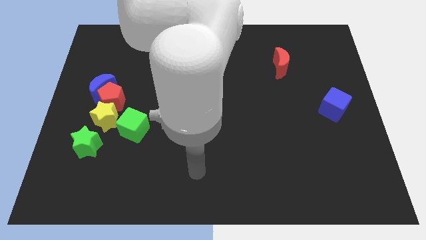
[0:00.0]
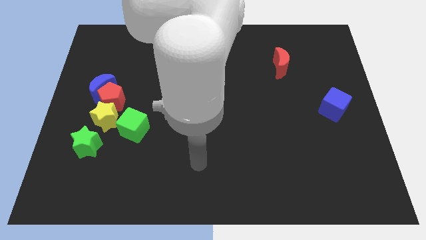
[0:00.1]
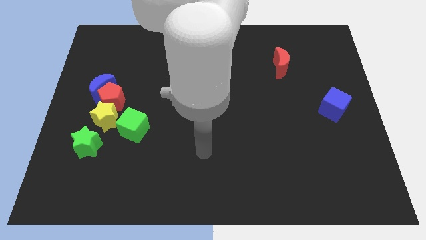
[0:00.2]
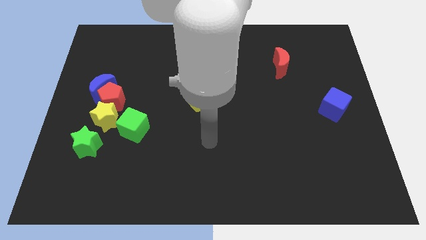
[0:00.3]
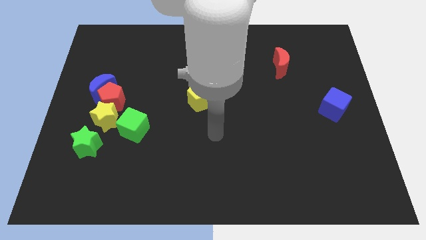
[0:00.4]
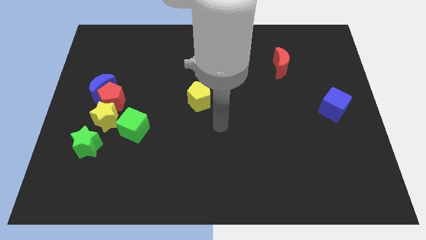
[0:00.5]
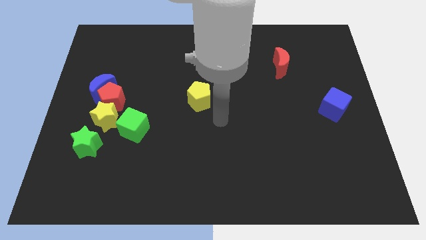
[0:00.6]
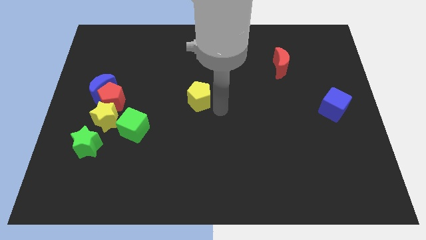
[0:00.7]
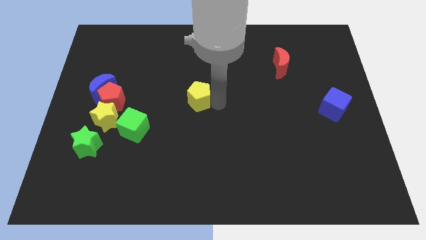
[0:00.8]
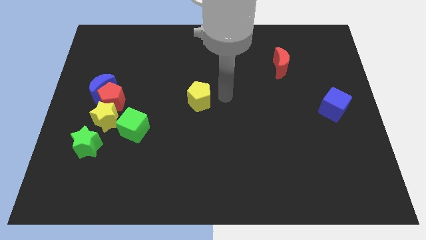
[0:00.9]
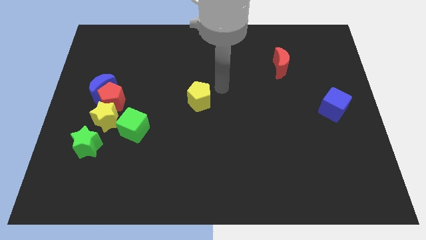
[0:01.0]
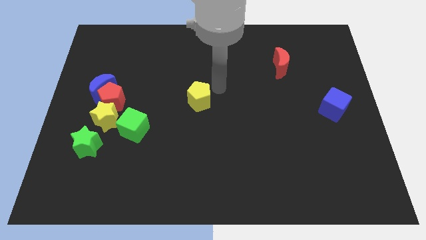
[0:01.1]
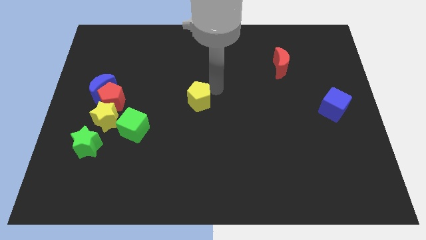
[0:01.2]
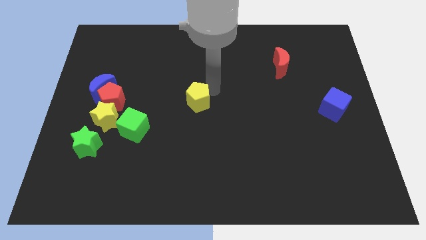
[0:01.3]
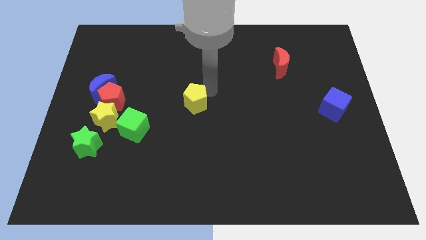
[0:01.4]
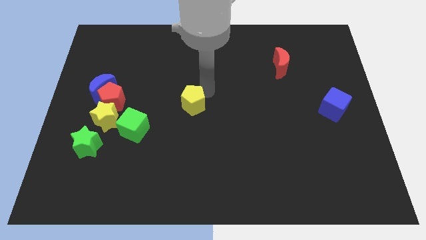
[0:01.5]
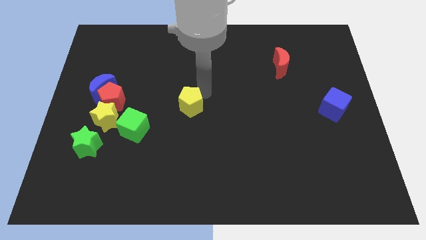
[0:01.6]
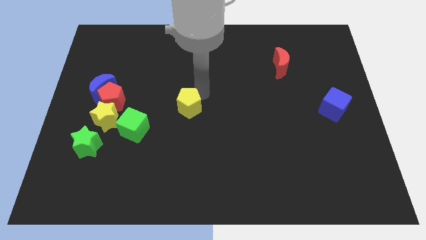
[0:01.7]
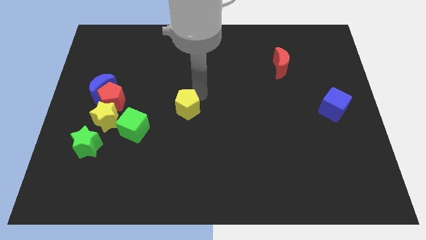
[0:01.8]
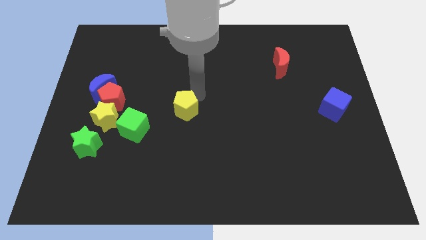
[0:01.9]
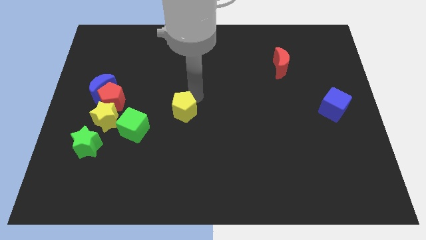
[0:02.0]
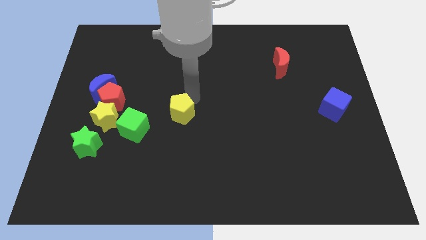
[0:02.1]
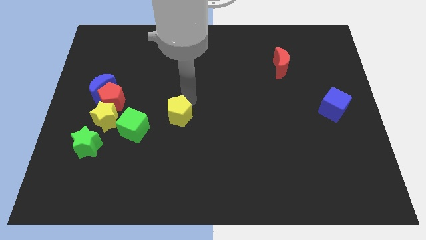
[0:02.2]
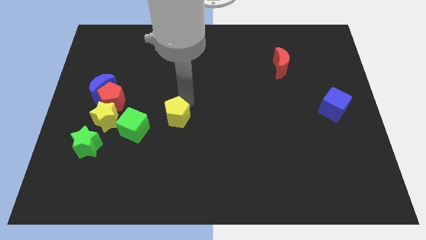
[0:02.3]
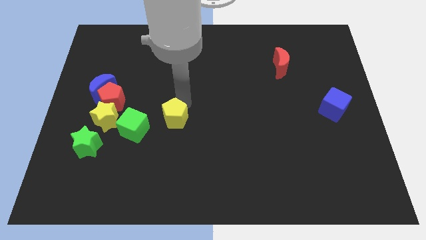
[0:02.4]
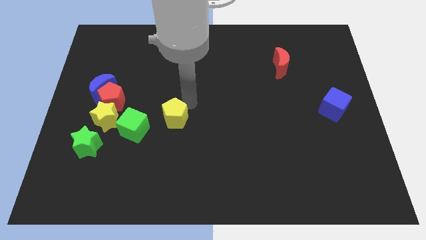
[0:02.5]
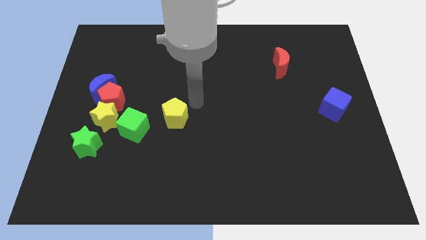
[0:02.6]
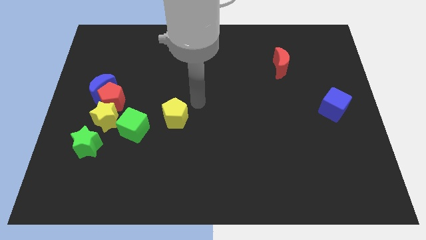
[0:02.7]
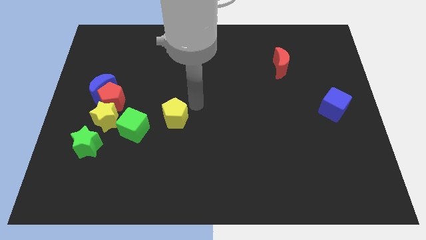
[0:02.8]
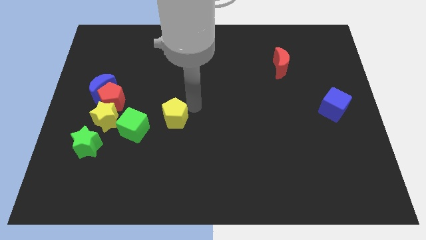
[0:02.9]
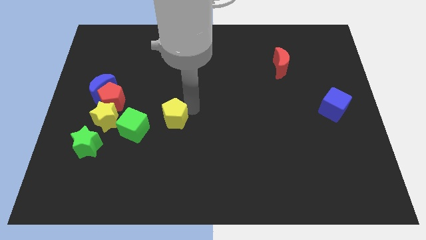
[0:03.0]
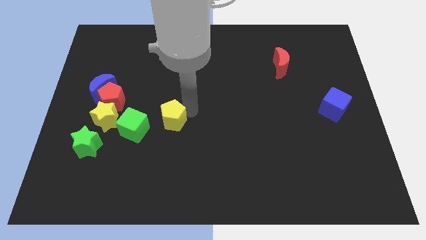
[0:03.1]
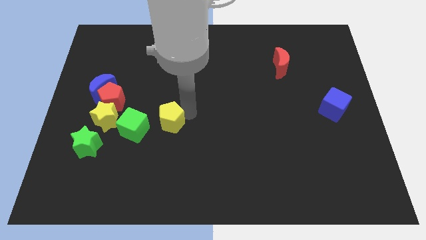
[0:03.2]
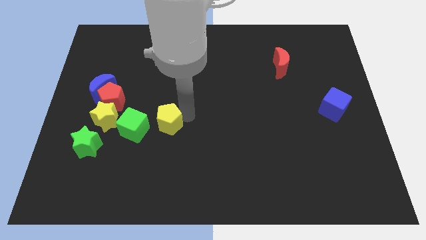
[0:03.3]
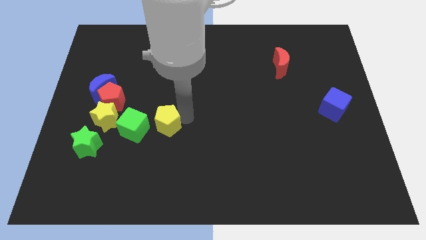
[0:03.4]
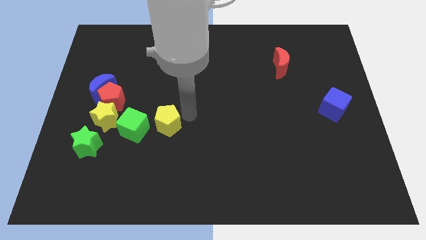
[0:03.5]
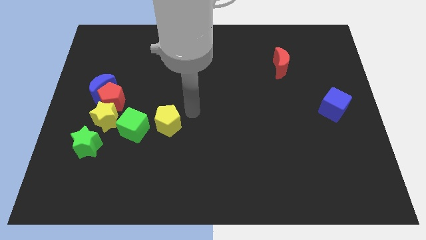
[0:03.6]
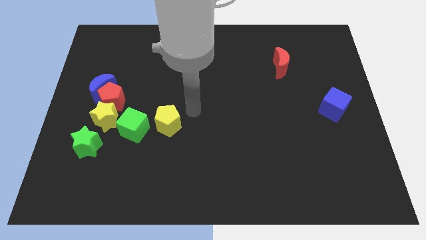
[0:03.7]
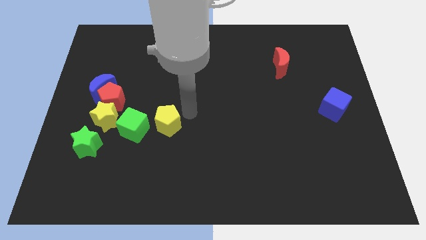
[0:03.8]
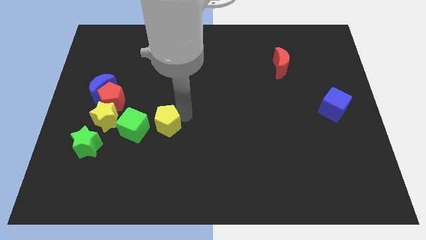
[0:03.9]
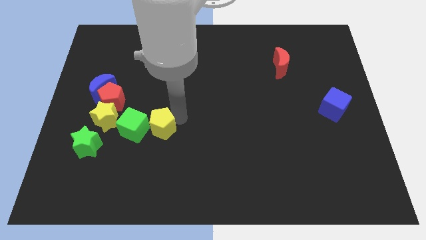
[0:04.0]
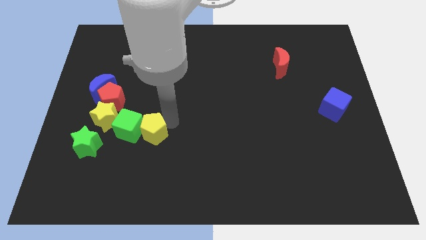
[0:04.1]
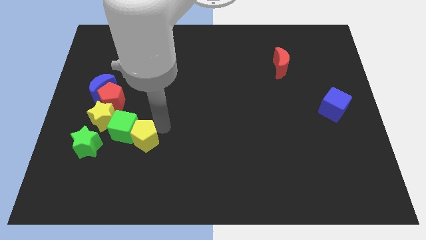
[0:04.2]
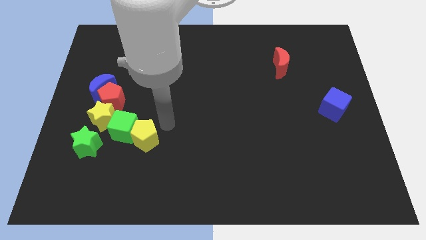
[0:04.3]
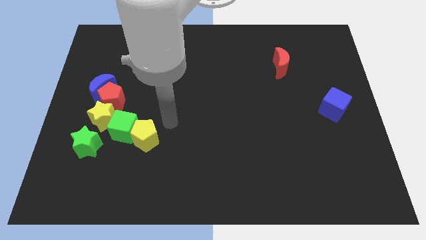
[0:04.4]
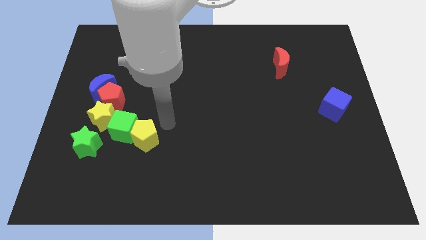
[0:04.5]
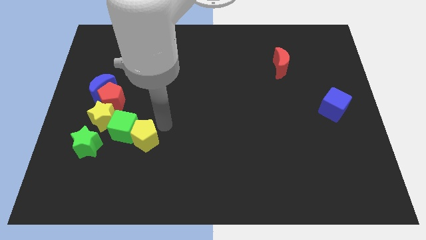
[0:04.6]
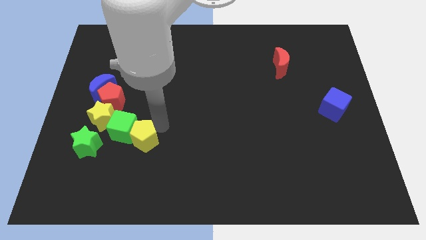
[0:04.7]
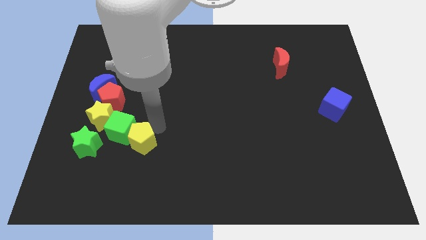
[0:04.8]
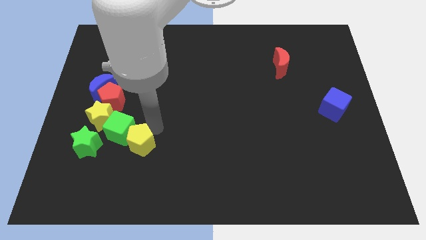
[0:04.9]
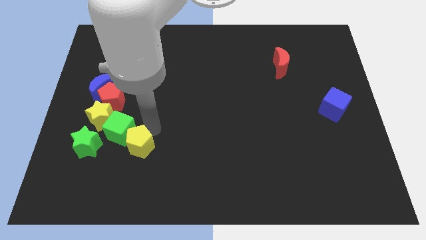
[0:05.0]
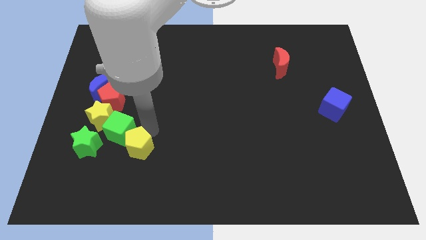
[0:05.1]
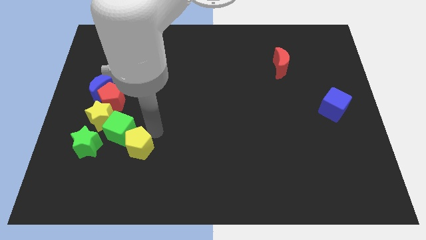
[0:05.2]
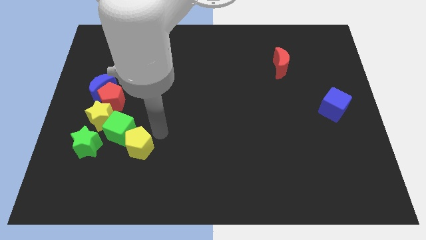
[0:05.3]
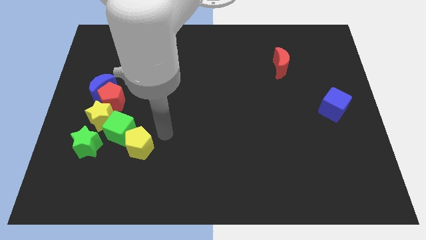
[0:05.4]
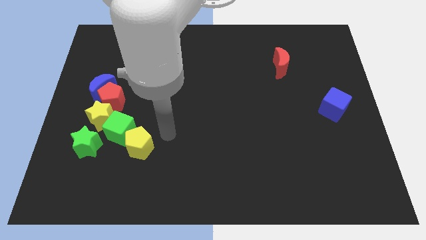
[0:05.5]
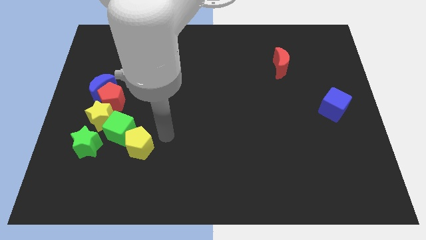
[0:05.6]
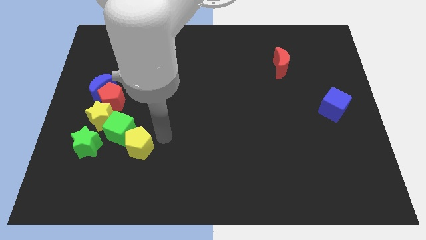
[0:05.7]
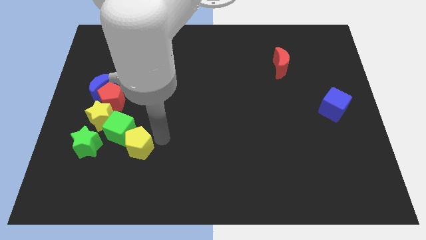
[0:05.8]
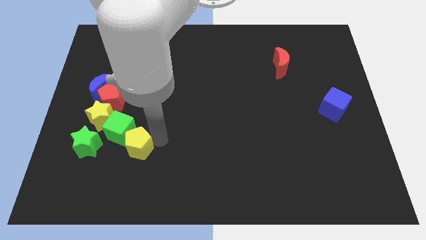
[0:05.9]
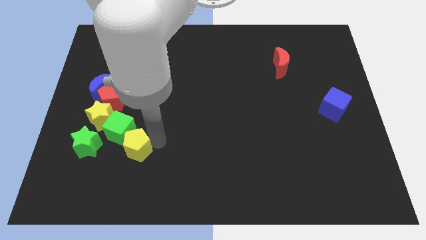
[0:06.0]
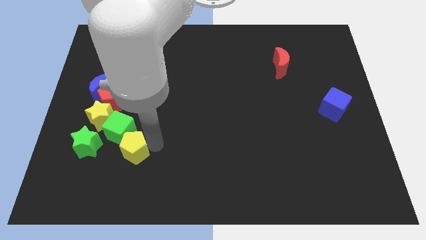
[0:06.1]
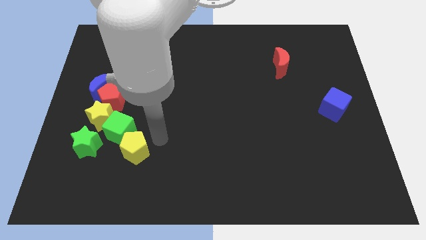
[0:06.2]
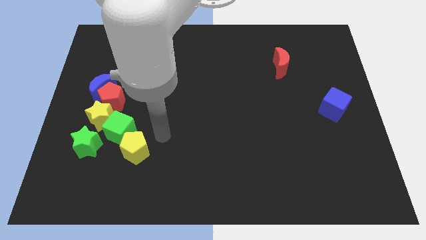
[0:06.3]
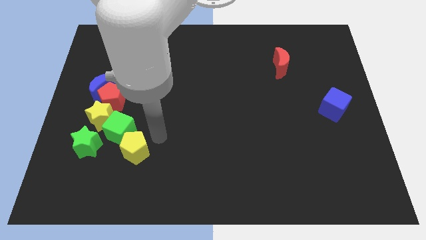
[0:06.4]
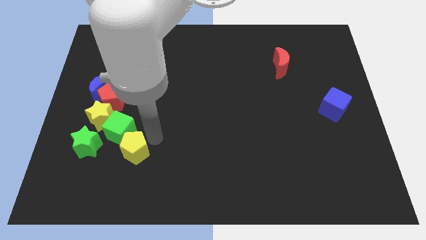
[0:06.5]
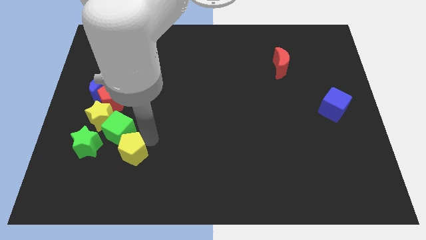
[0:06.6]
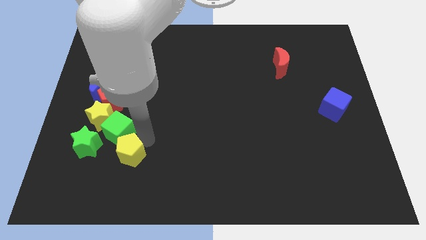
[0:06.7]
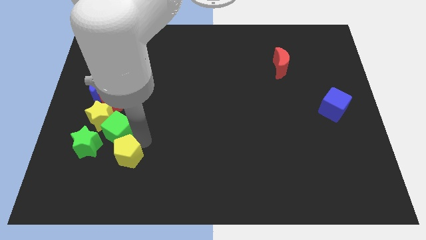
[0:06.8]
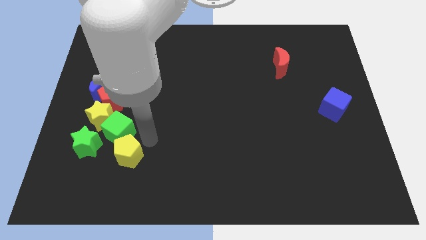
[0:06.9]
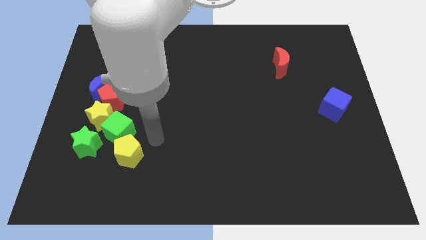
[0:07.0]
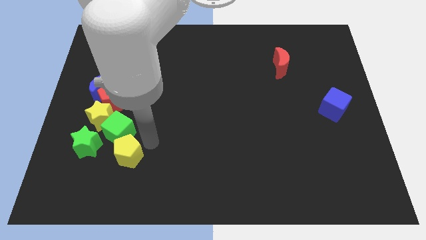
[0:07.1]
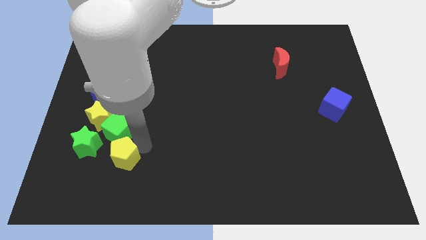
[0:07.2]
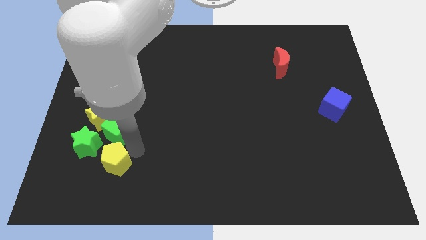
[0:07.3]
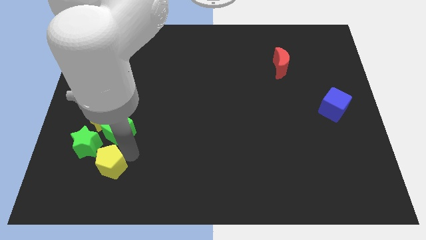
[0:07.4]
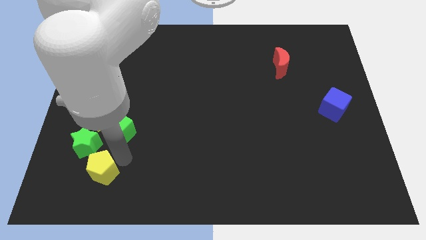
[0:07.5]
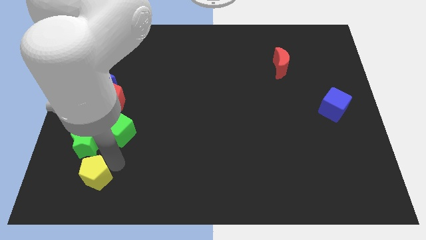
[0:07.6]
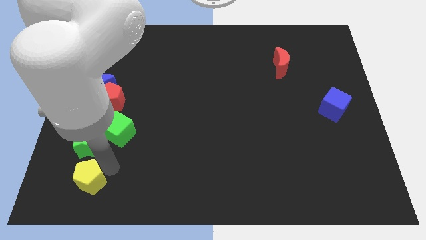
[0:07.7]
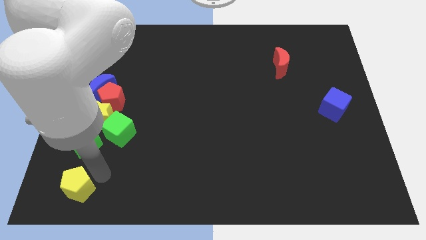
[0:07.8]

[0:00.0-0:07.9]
push the yellow pentagon to the lower left corner
